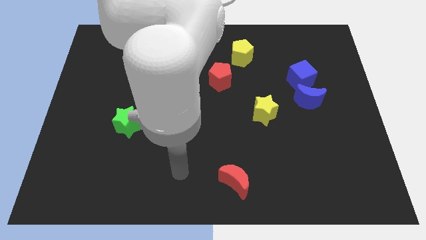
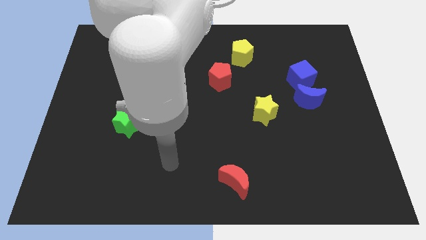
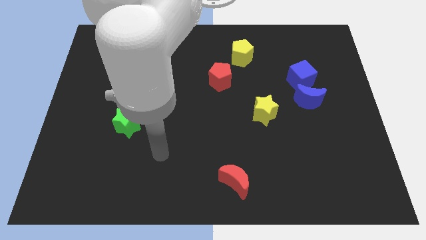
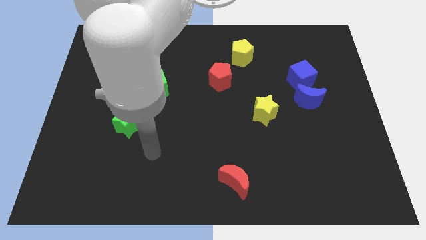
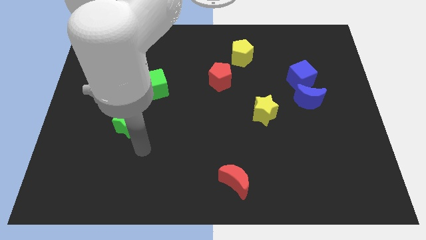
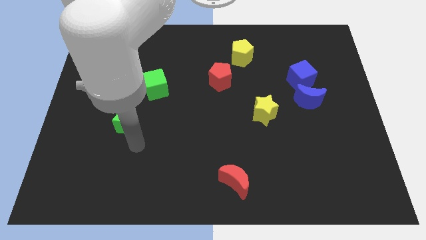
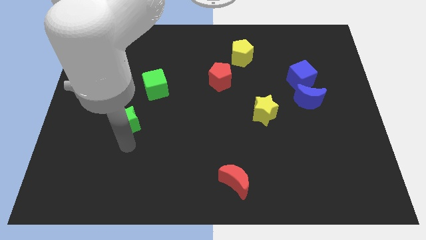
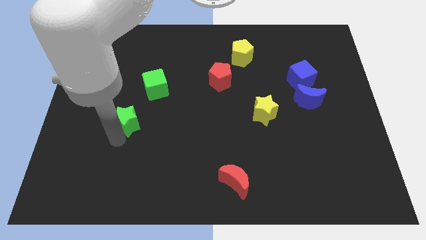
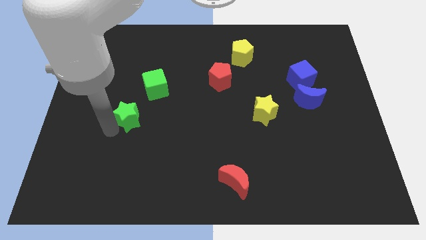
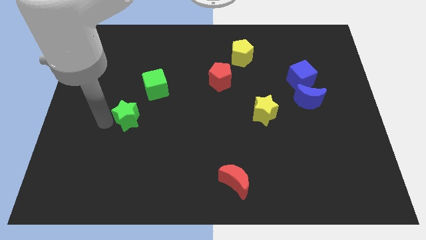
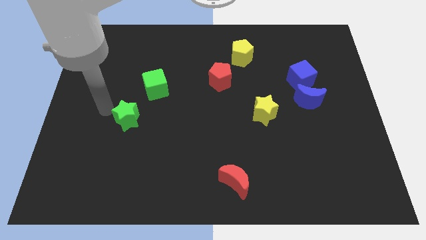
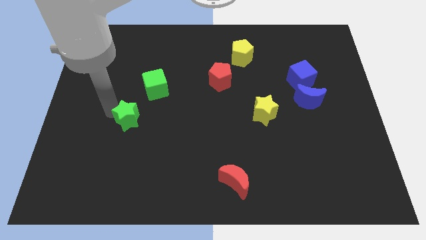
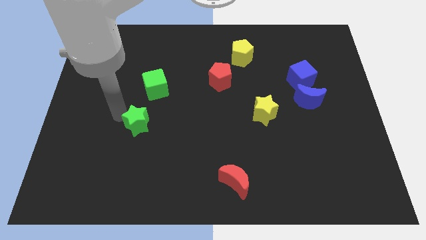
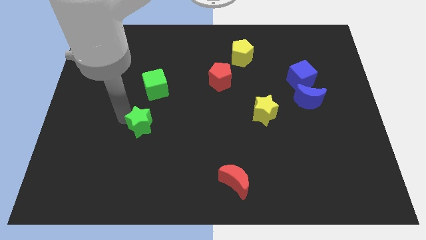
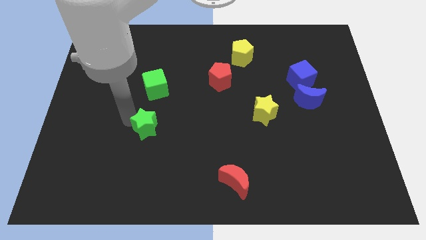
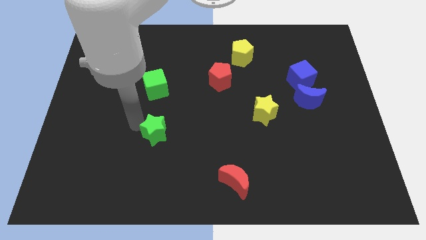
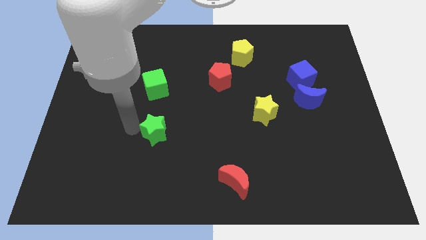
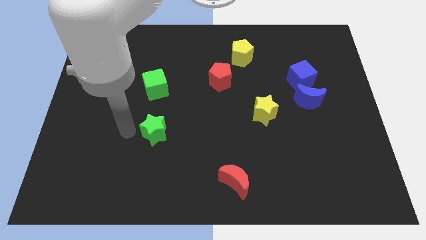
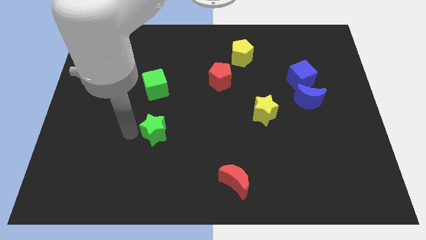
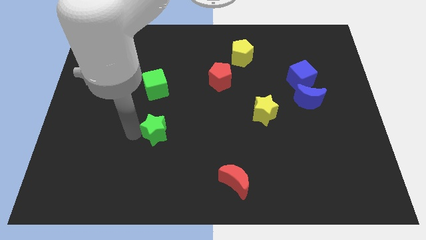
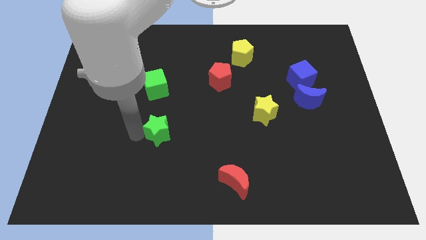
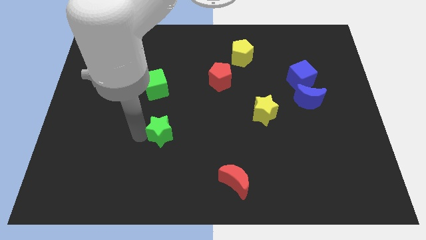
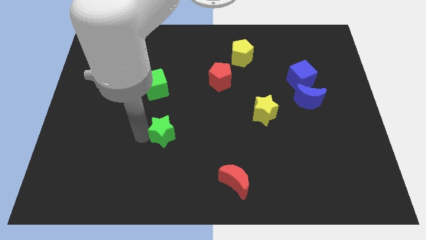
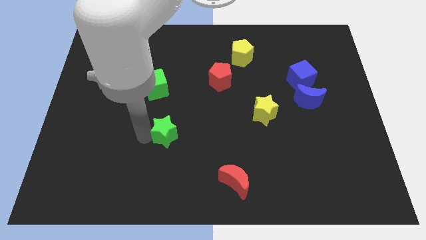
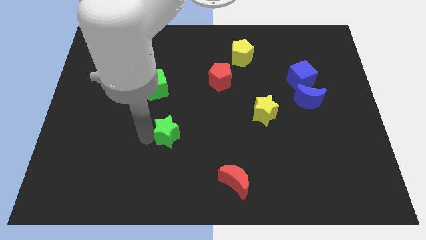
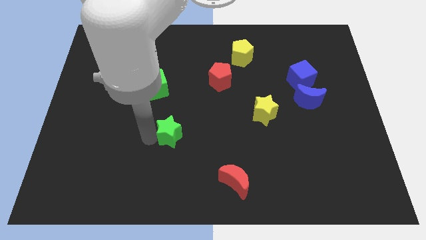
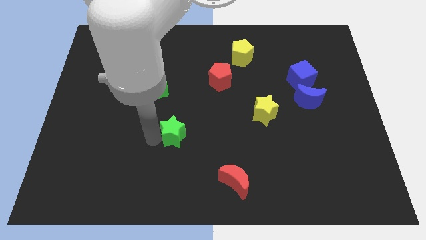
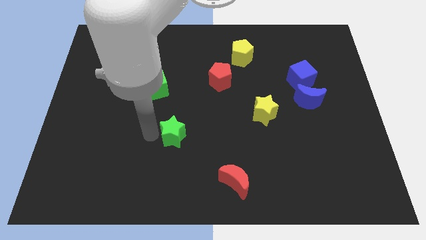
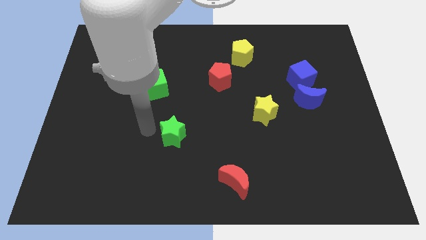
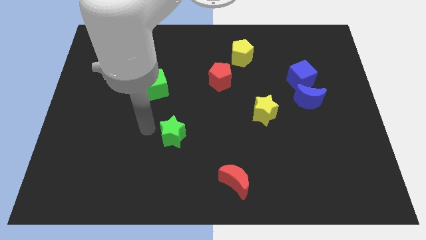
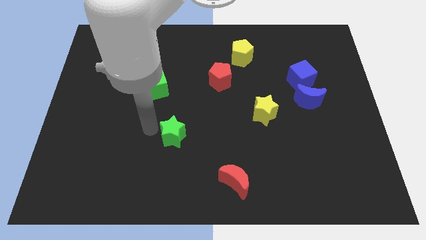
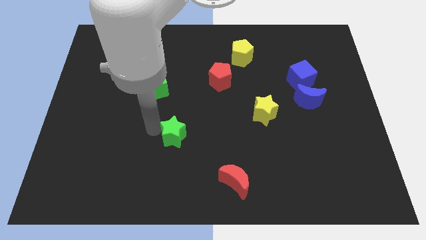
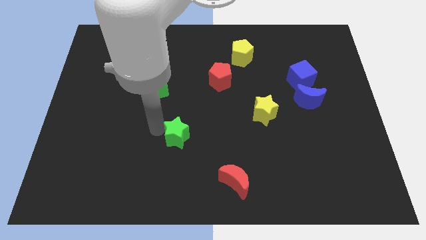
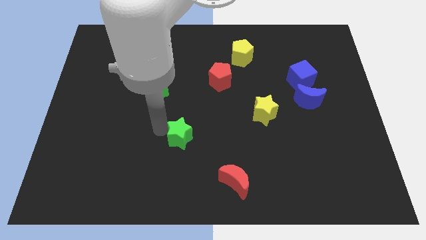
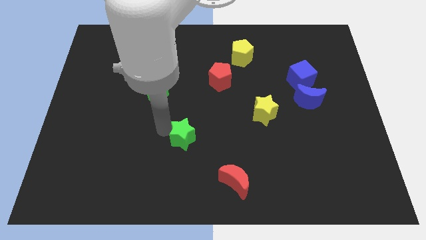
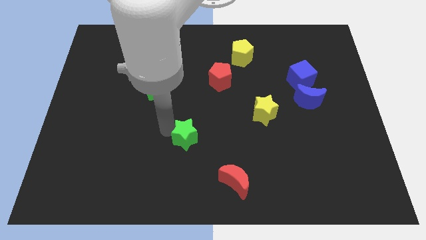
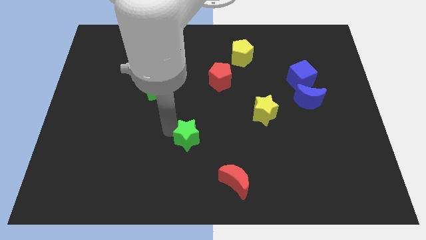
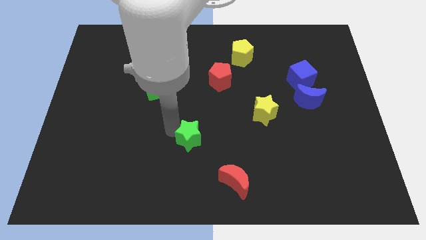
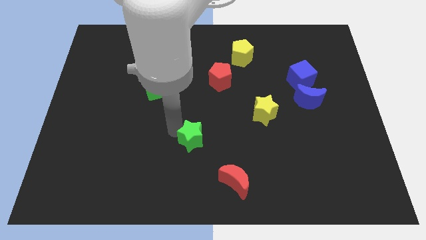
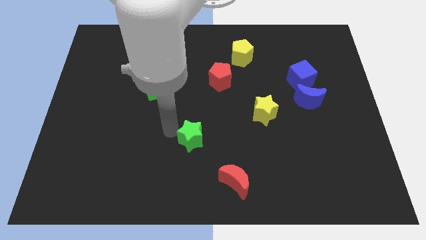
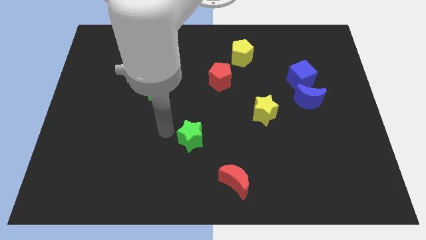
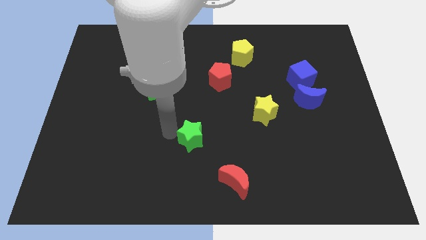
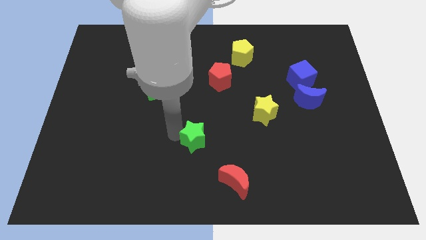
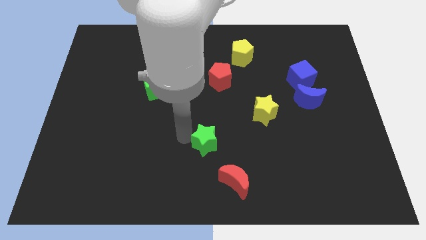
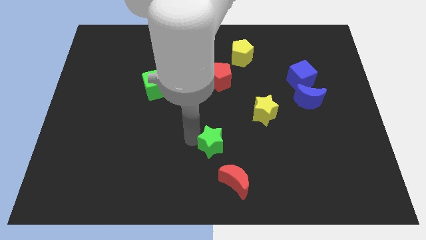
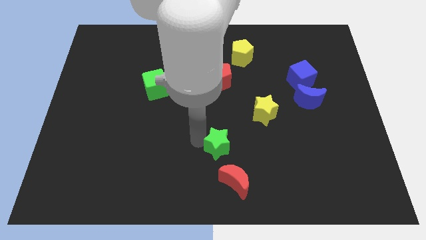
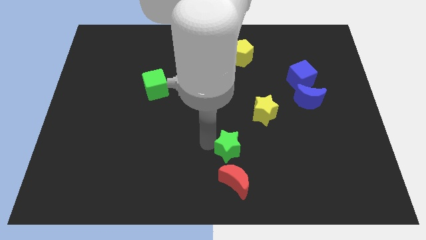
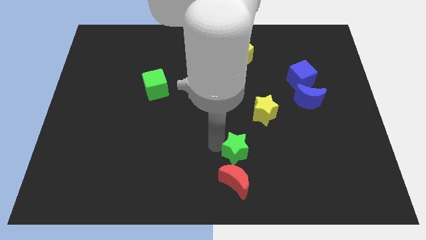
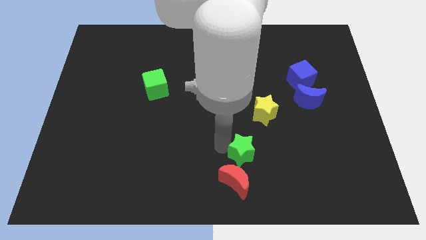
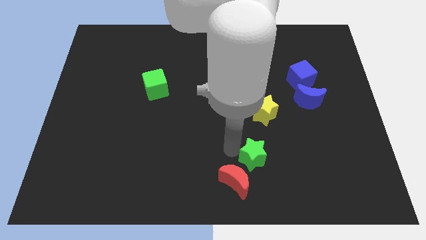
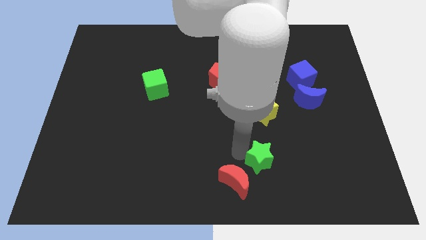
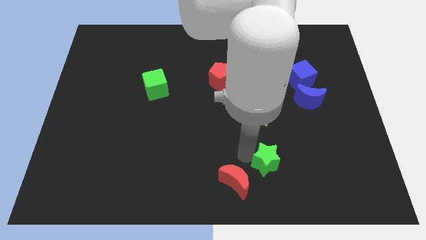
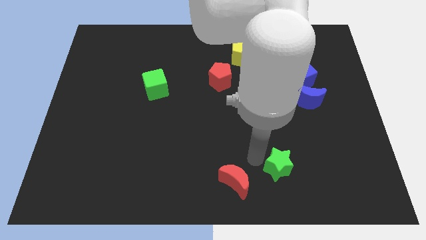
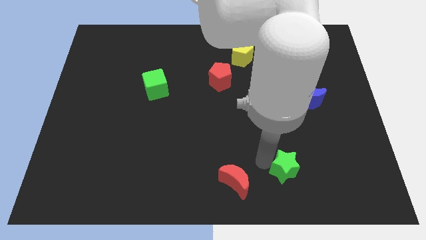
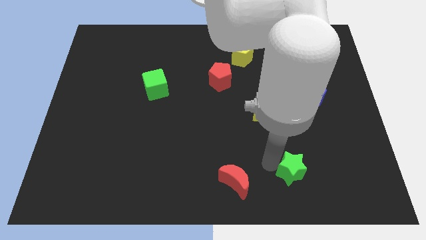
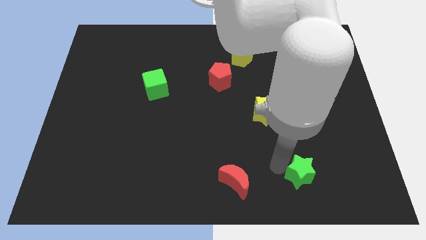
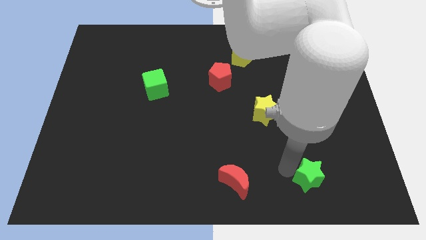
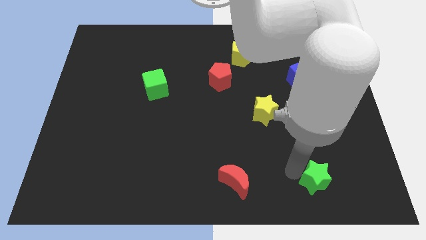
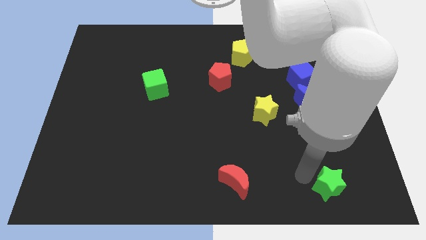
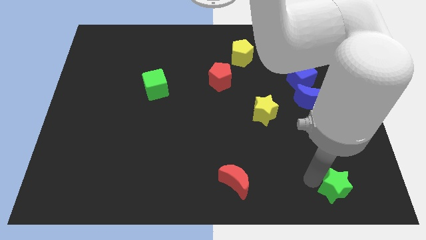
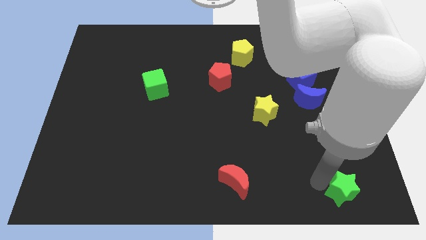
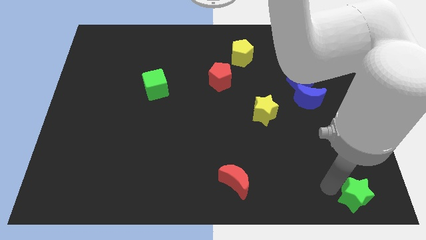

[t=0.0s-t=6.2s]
move the green star to the bottom right of the board

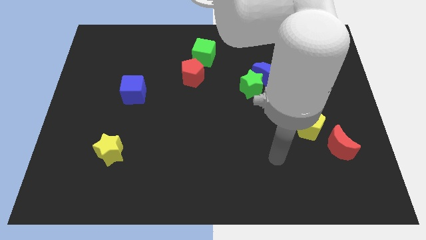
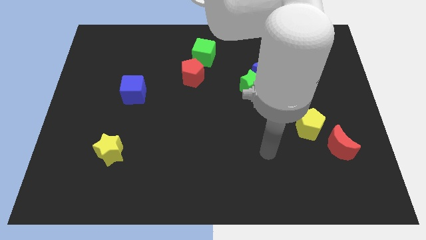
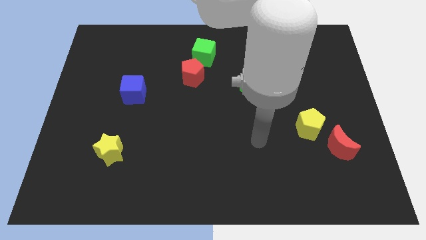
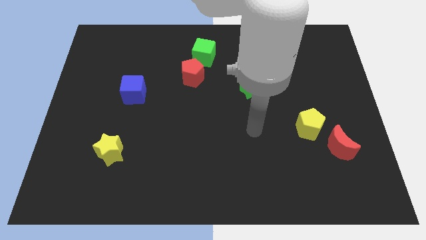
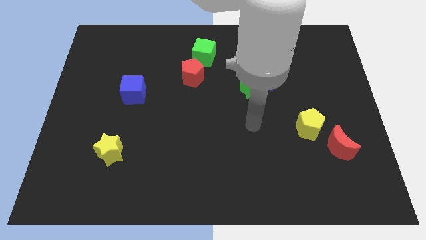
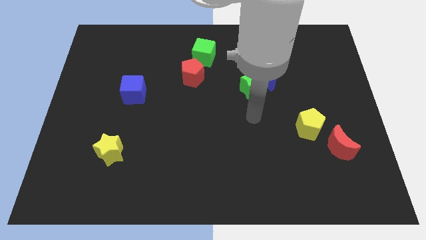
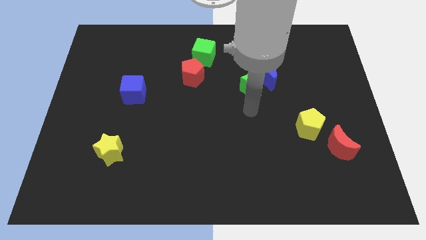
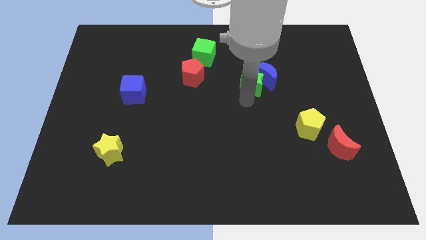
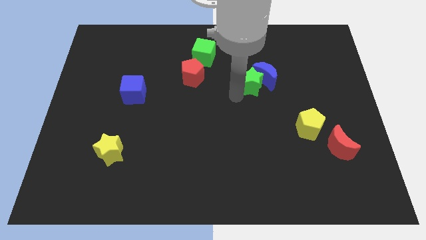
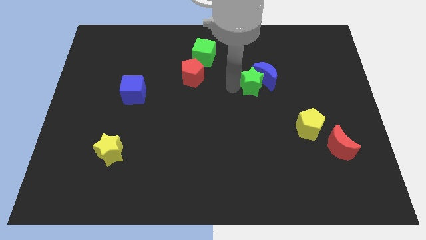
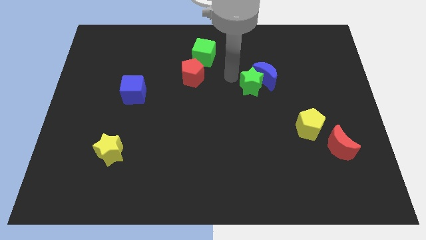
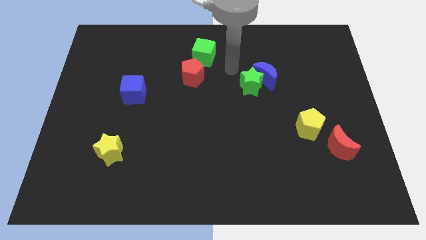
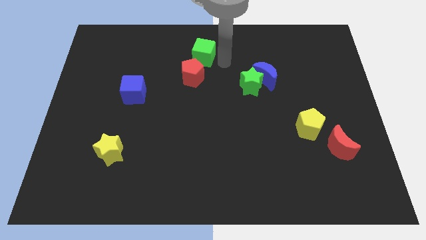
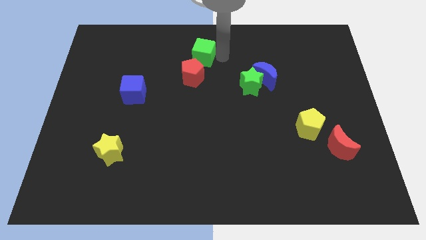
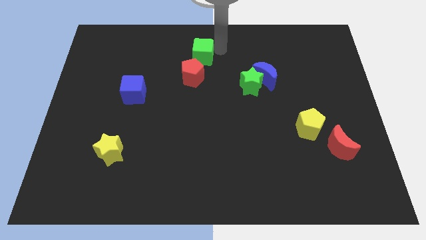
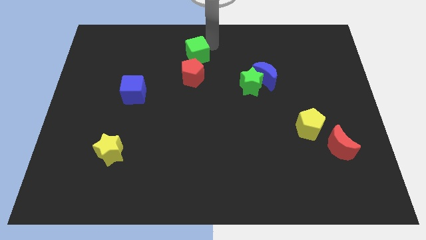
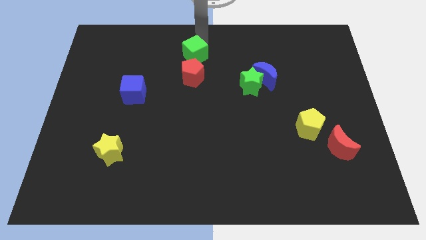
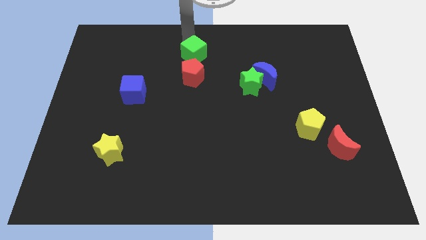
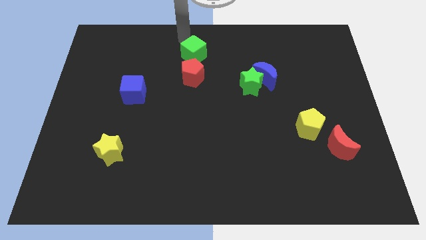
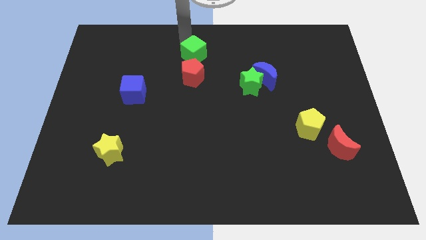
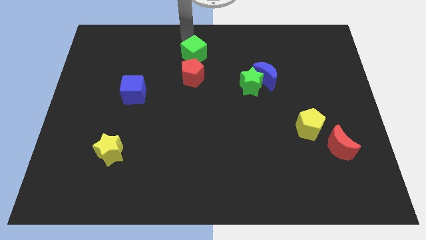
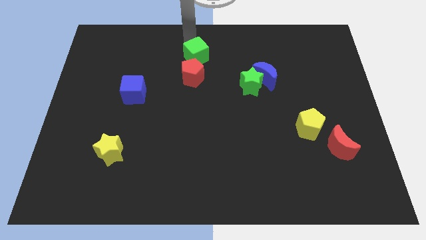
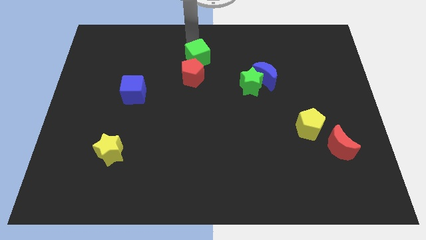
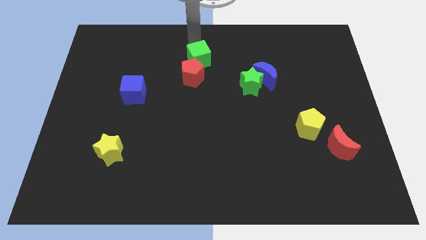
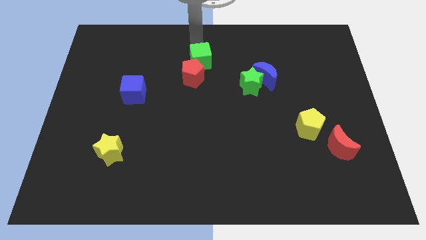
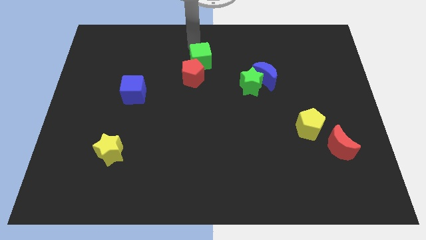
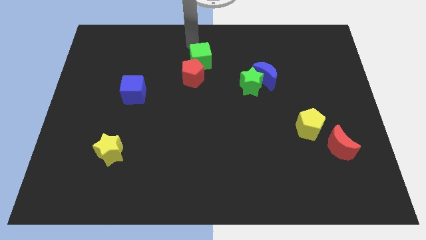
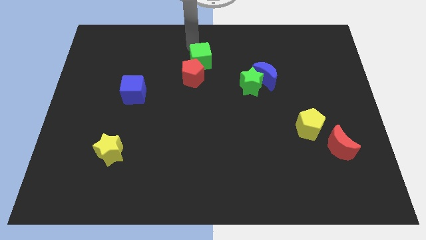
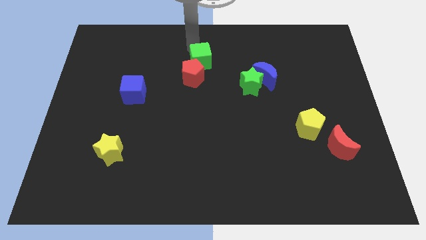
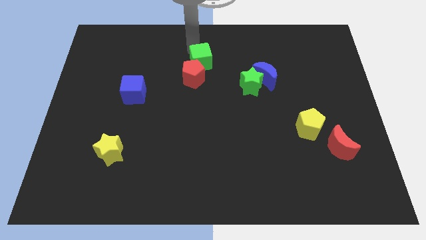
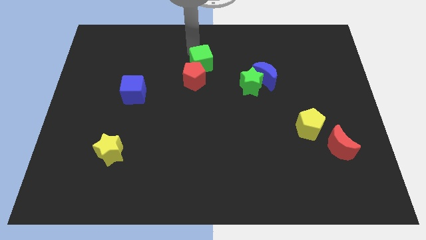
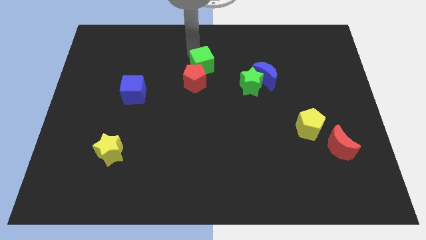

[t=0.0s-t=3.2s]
slide the green cube to the middle of the board
